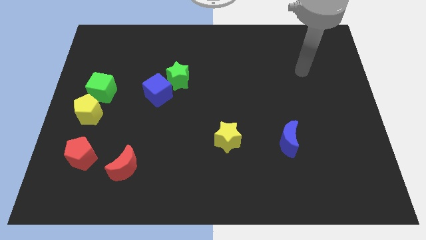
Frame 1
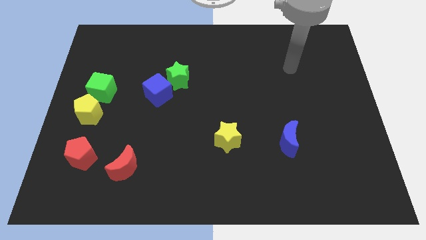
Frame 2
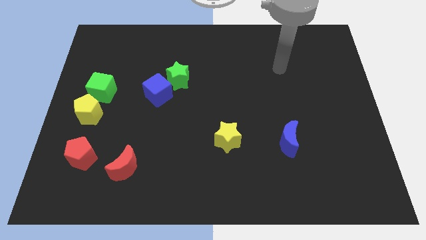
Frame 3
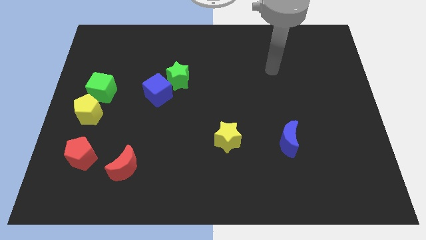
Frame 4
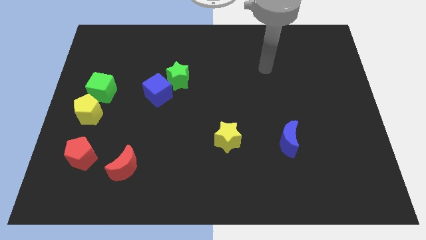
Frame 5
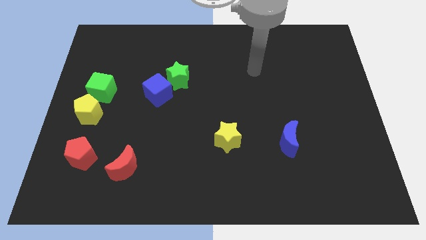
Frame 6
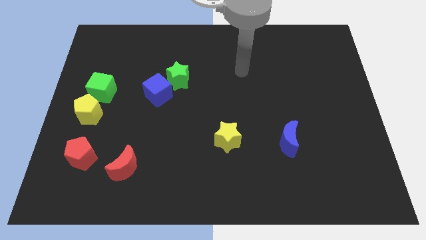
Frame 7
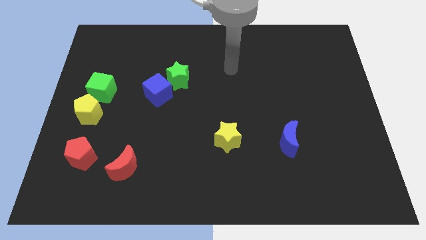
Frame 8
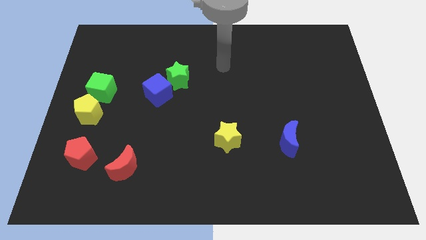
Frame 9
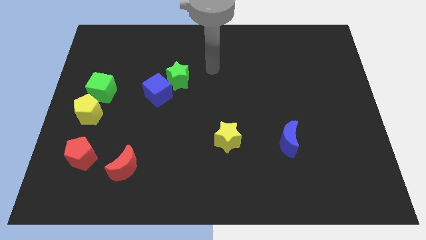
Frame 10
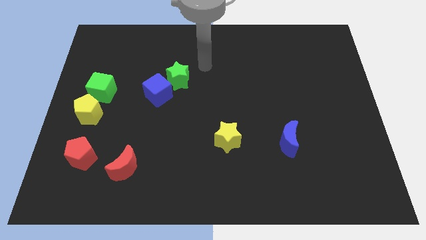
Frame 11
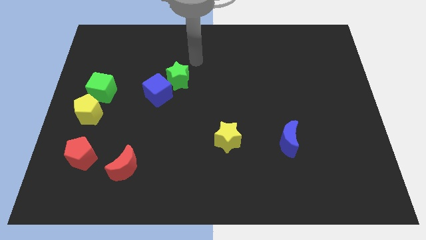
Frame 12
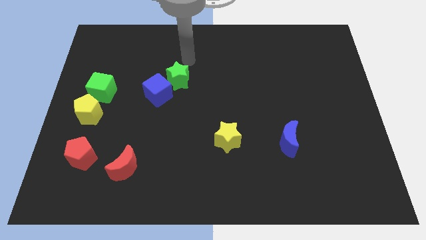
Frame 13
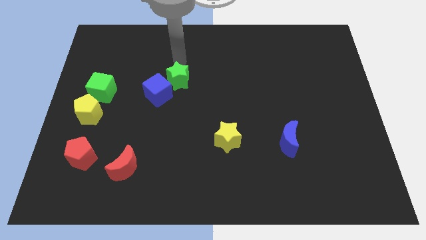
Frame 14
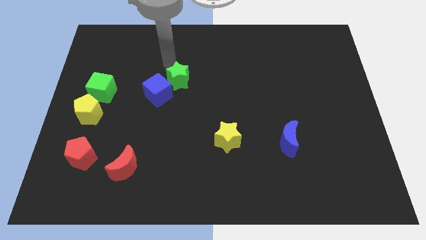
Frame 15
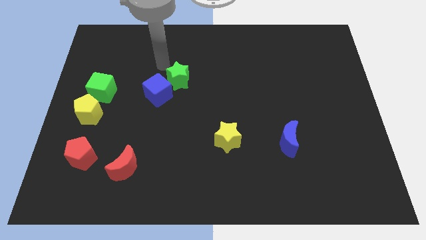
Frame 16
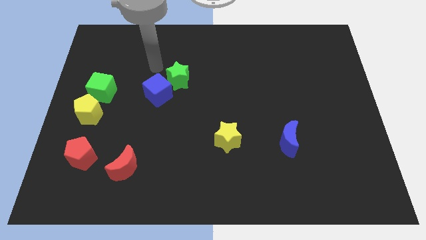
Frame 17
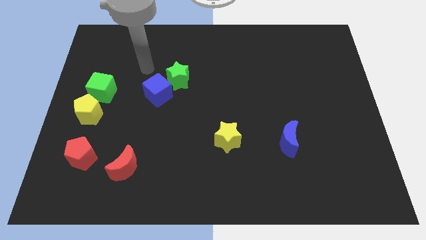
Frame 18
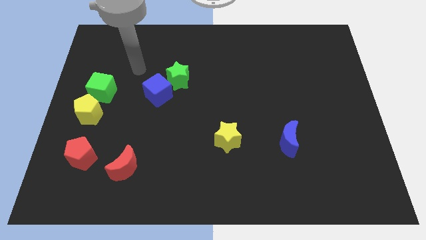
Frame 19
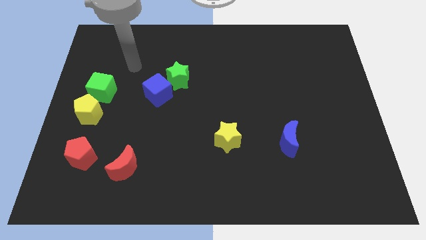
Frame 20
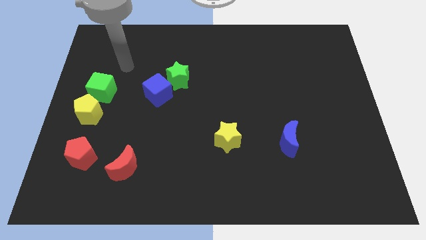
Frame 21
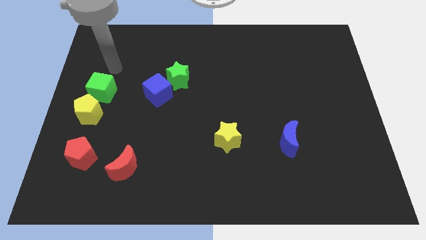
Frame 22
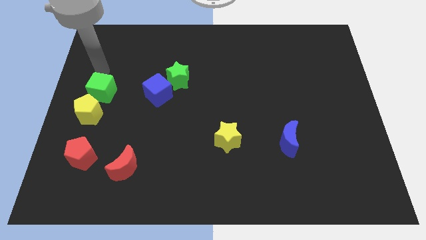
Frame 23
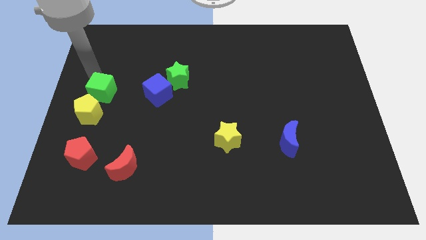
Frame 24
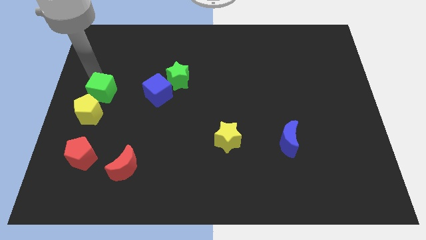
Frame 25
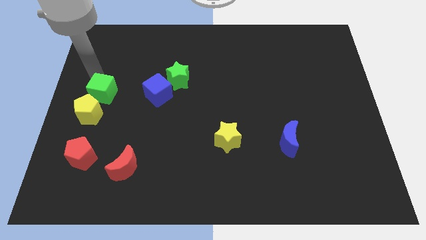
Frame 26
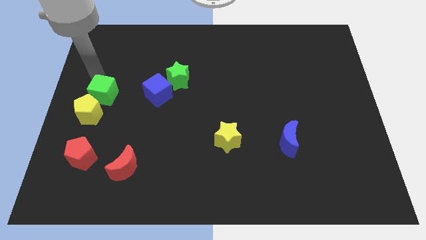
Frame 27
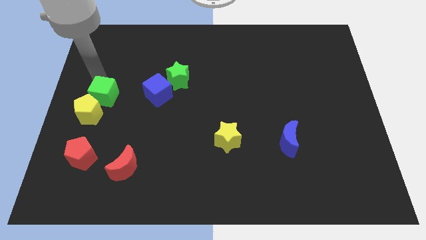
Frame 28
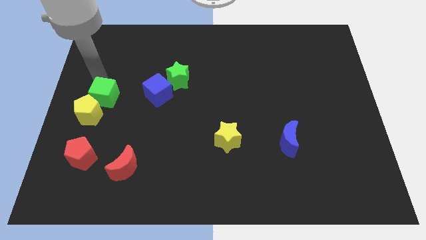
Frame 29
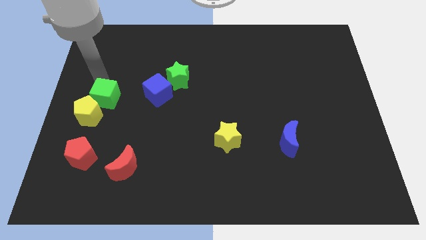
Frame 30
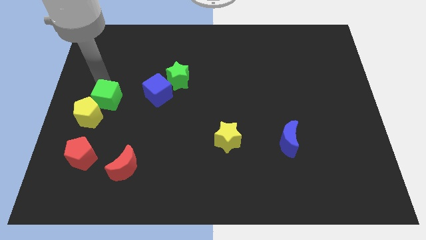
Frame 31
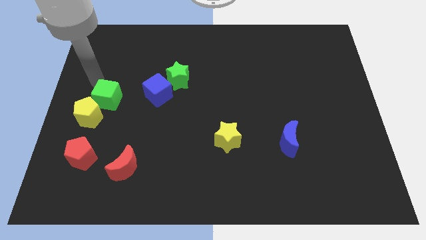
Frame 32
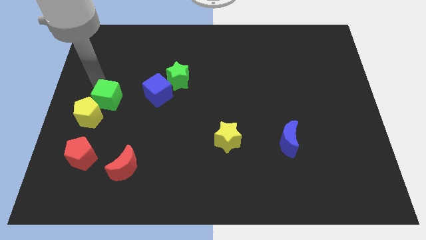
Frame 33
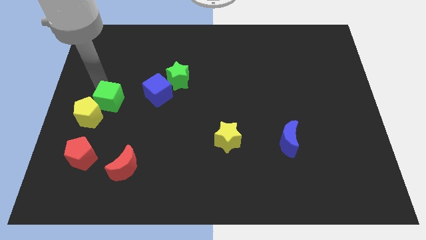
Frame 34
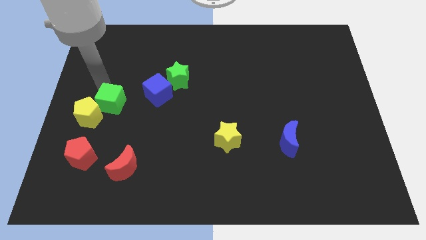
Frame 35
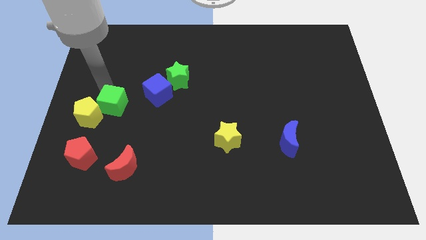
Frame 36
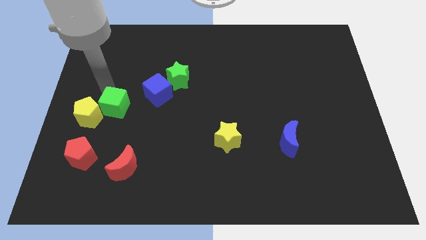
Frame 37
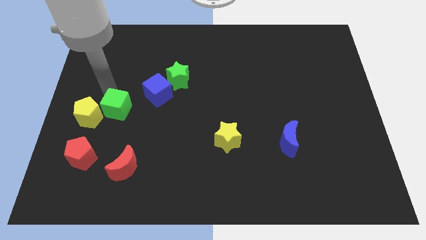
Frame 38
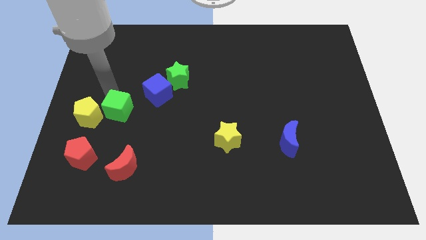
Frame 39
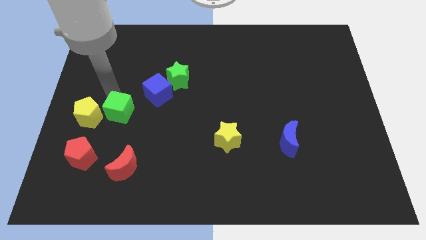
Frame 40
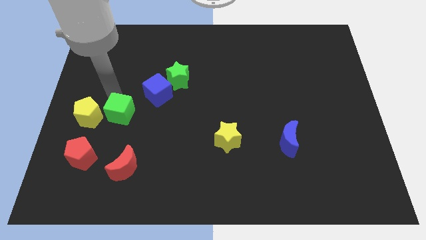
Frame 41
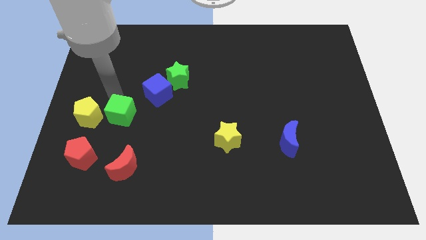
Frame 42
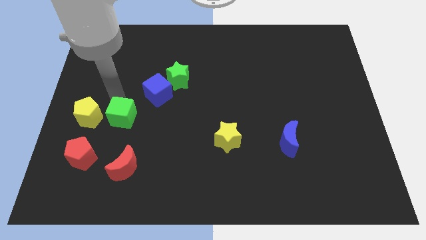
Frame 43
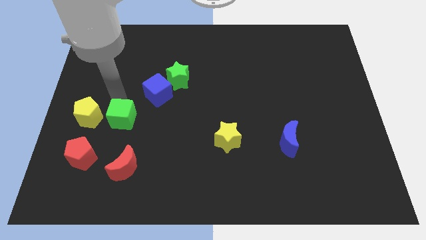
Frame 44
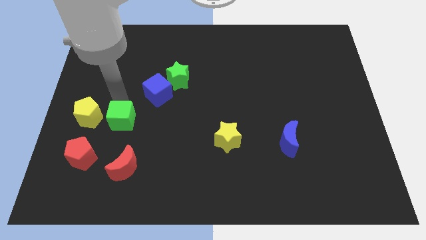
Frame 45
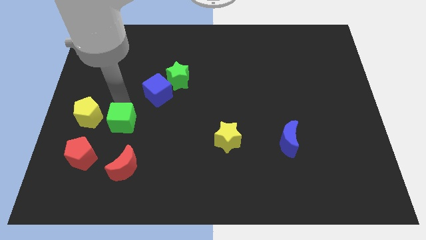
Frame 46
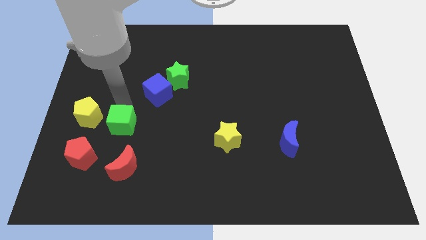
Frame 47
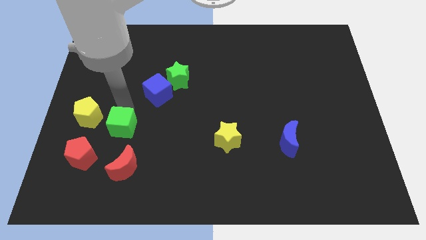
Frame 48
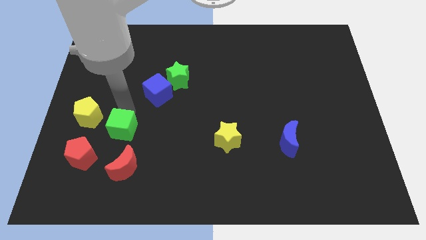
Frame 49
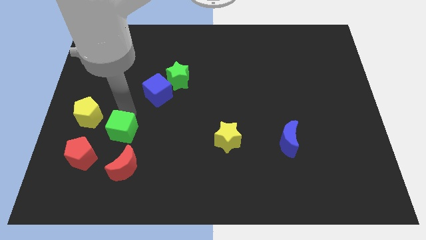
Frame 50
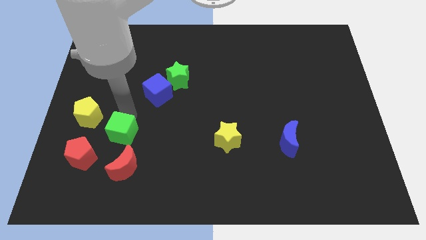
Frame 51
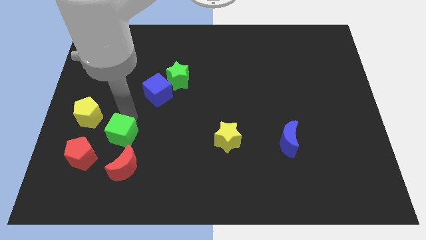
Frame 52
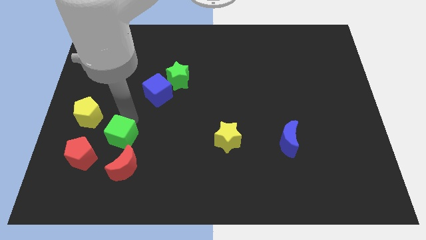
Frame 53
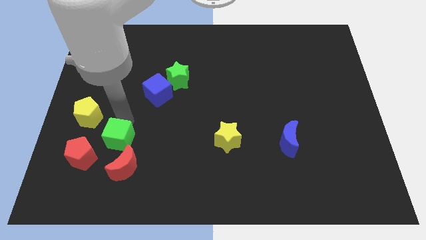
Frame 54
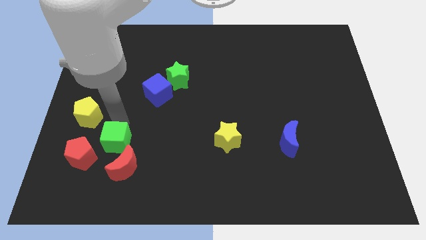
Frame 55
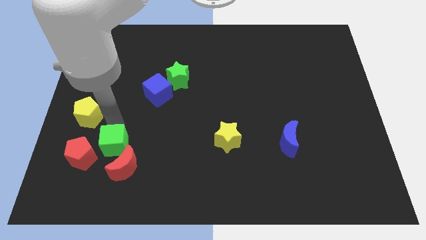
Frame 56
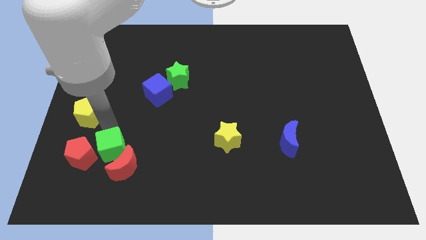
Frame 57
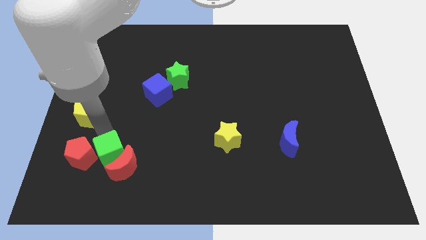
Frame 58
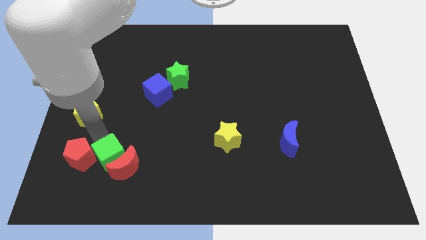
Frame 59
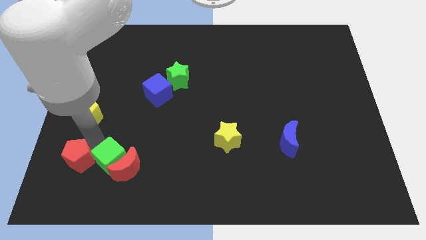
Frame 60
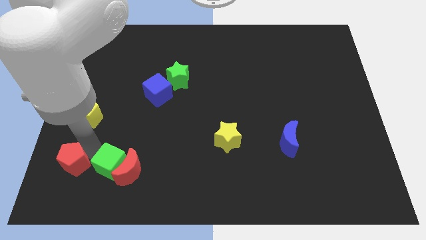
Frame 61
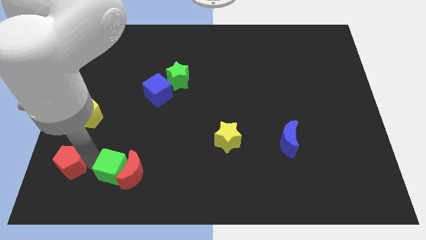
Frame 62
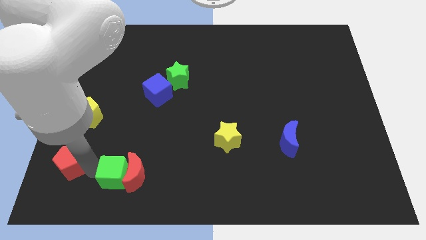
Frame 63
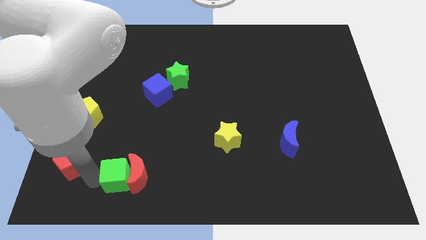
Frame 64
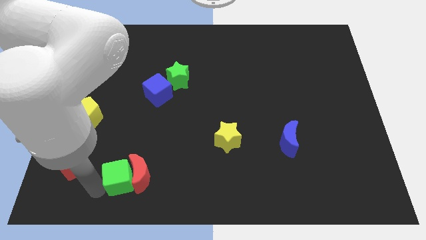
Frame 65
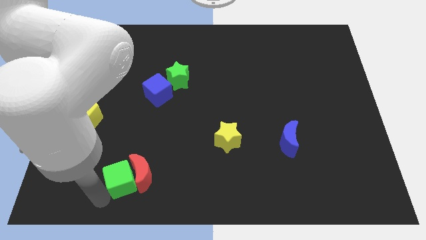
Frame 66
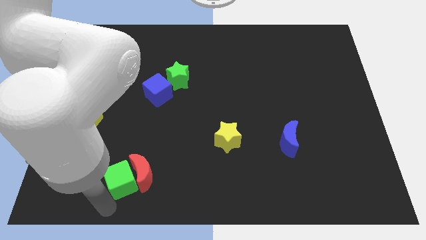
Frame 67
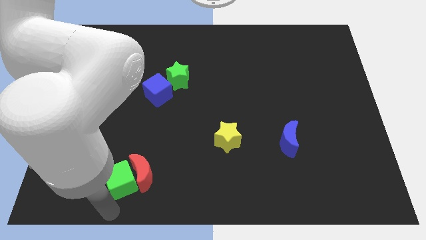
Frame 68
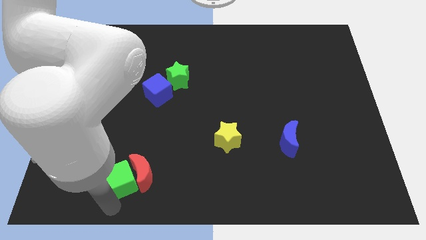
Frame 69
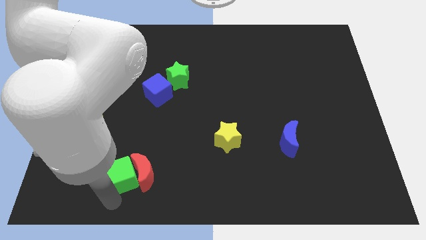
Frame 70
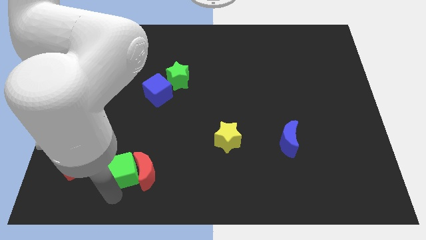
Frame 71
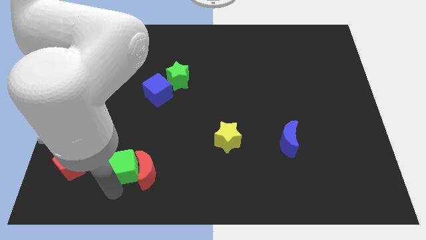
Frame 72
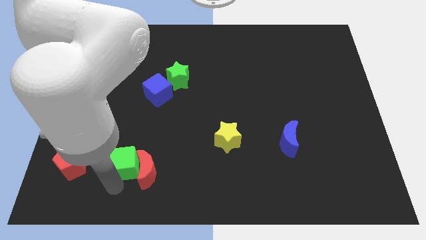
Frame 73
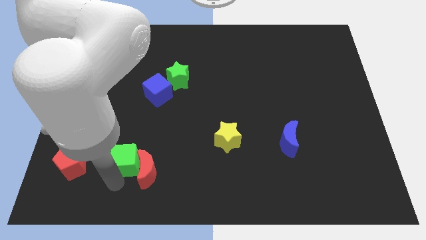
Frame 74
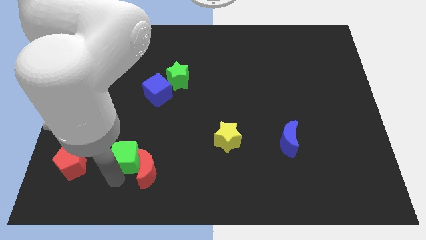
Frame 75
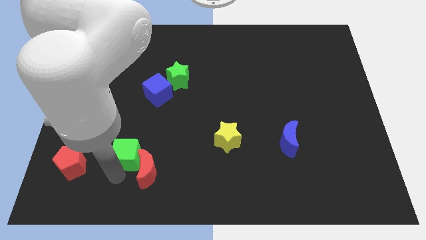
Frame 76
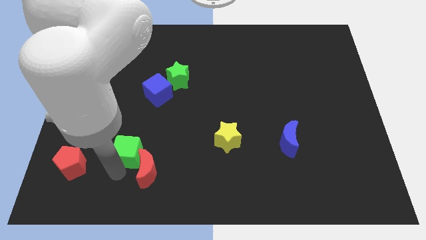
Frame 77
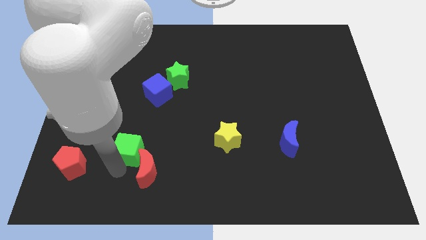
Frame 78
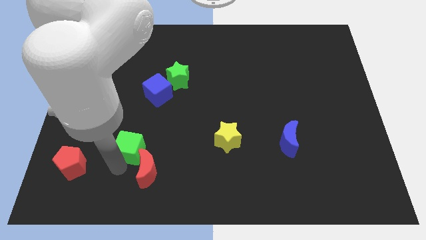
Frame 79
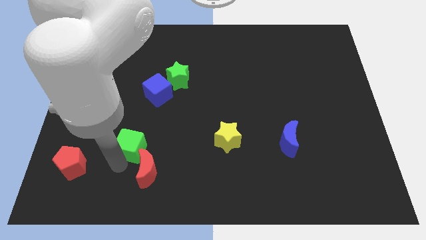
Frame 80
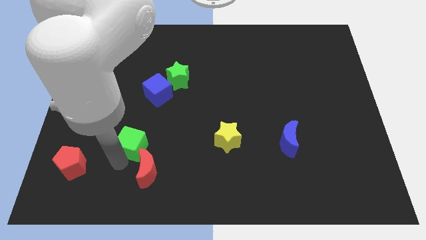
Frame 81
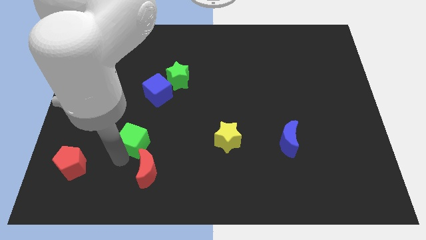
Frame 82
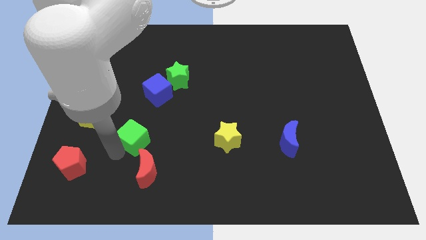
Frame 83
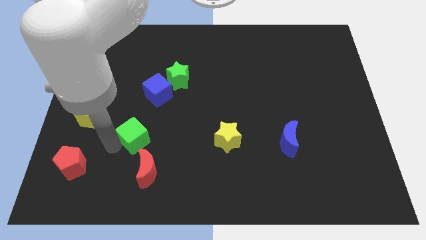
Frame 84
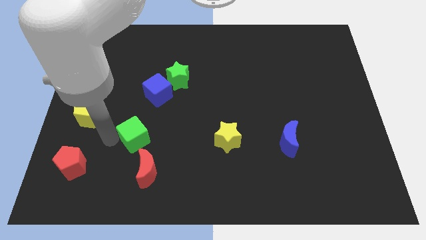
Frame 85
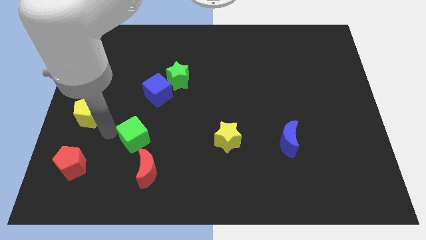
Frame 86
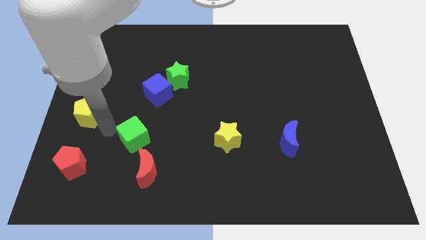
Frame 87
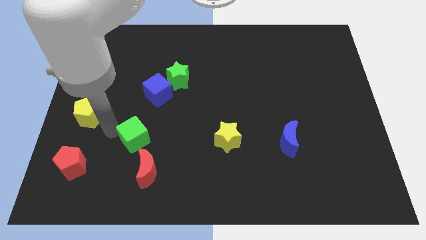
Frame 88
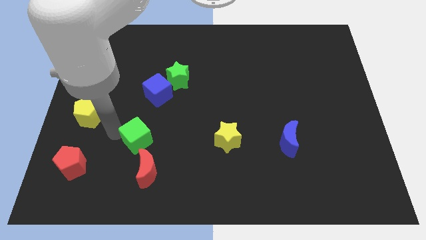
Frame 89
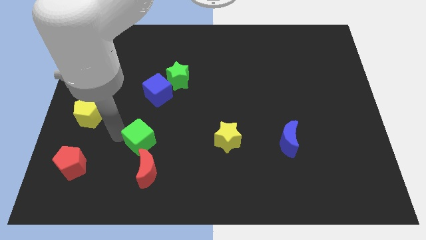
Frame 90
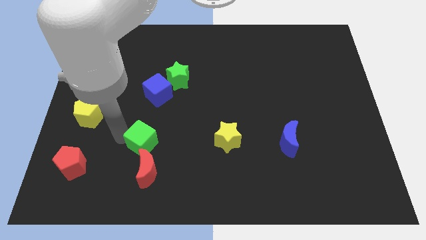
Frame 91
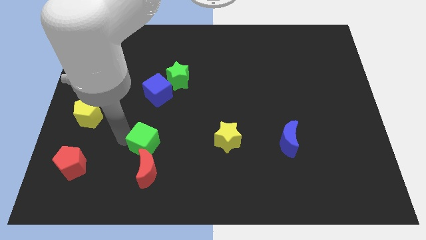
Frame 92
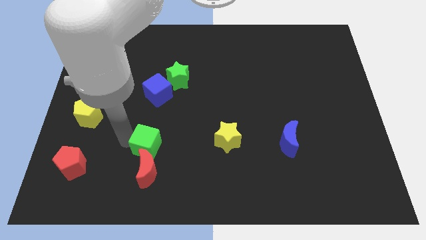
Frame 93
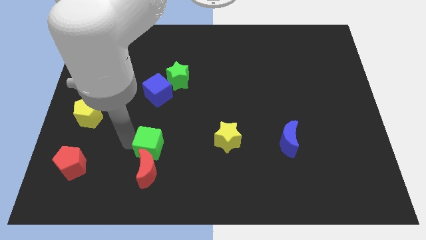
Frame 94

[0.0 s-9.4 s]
push the green cube to the top right side of the red moon
